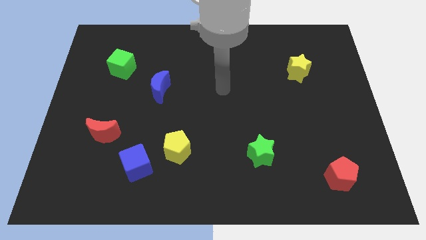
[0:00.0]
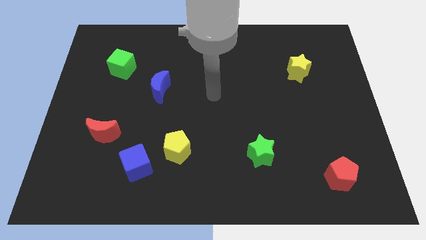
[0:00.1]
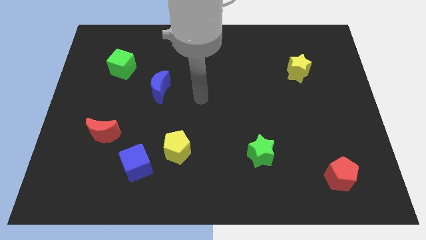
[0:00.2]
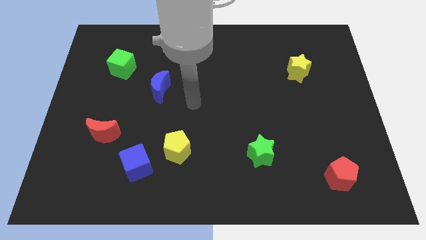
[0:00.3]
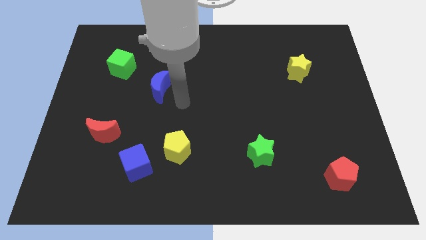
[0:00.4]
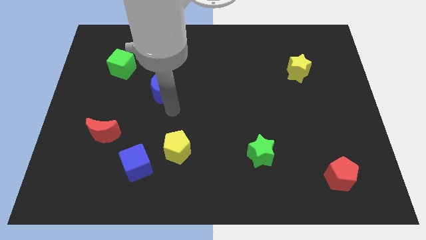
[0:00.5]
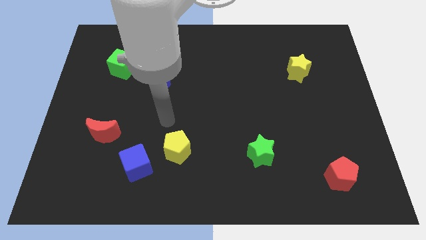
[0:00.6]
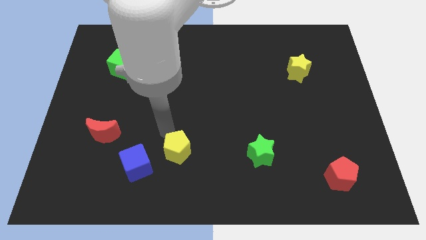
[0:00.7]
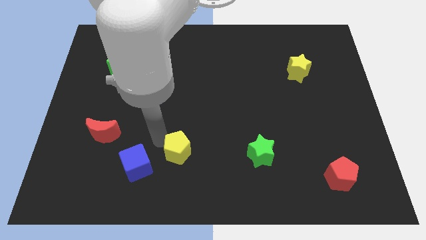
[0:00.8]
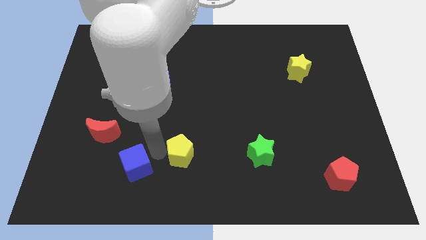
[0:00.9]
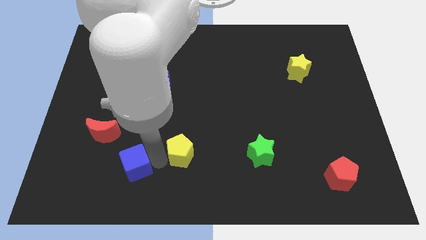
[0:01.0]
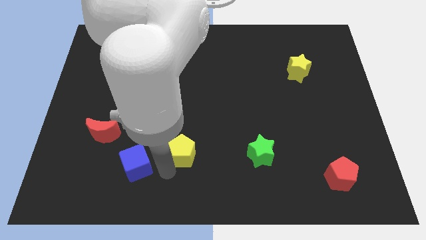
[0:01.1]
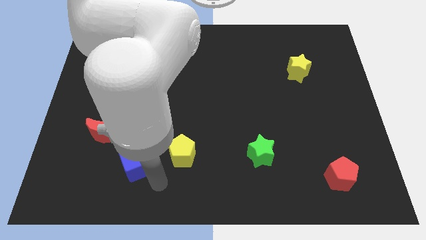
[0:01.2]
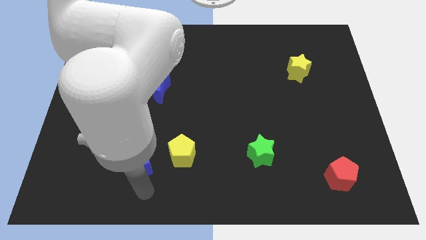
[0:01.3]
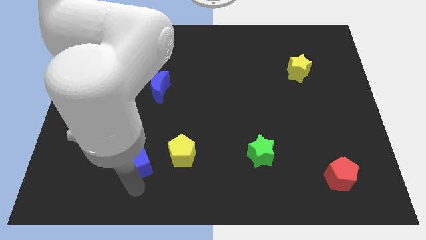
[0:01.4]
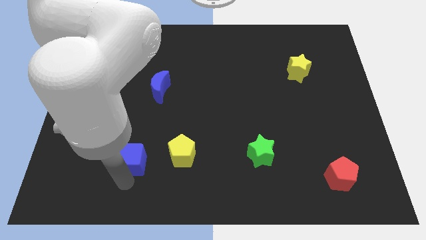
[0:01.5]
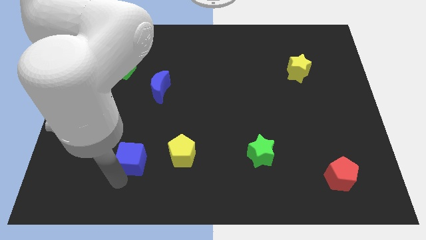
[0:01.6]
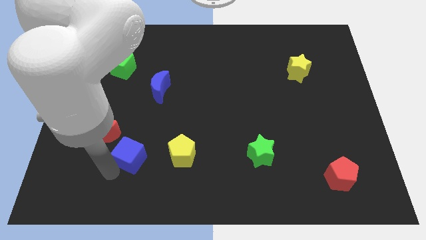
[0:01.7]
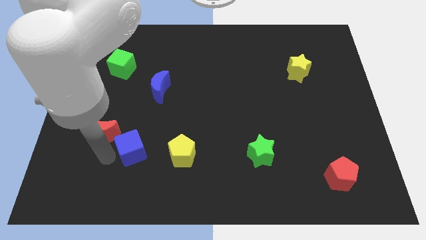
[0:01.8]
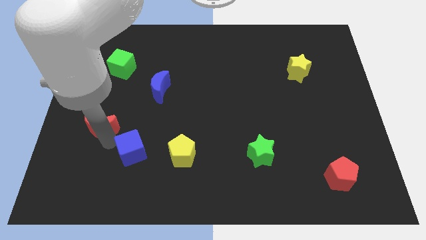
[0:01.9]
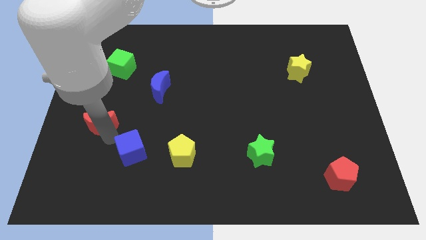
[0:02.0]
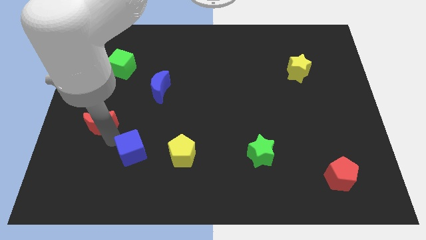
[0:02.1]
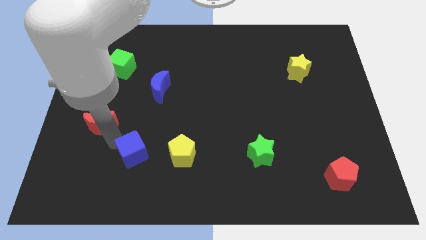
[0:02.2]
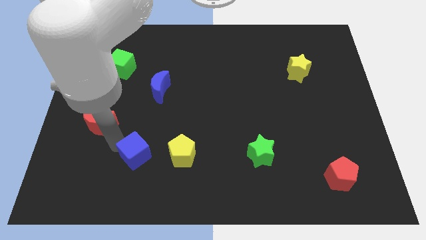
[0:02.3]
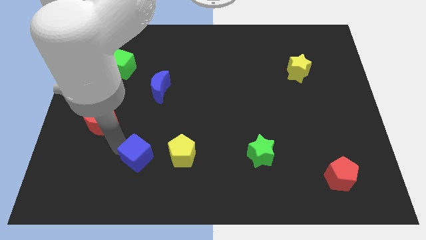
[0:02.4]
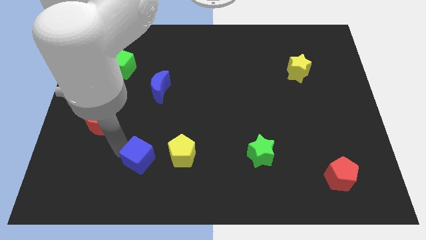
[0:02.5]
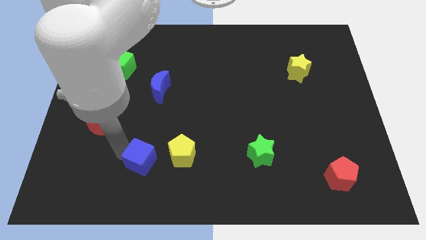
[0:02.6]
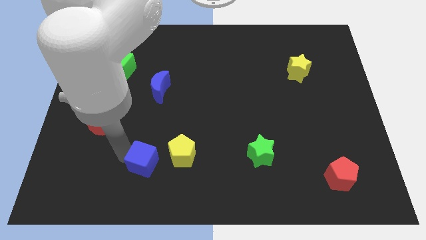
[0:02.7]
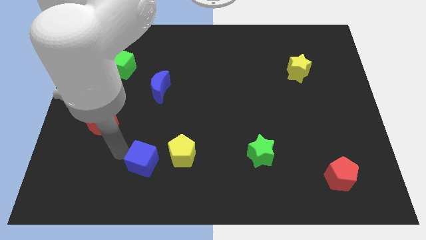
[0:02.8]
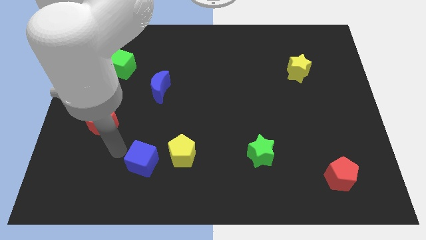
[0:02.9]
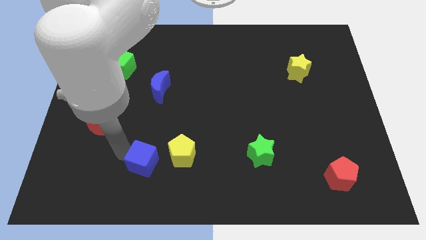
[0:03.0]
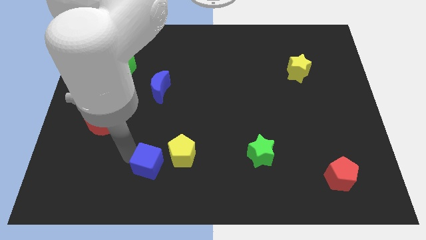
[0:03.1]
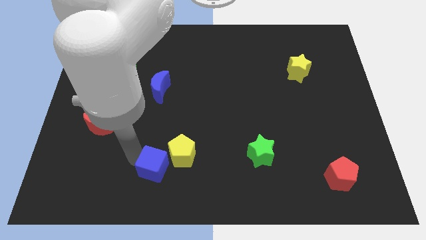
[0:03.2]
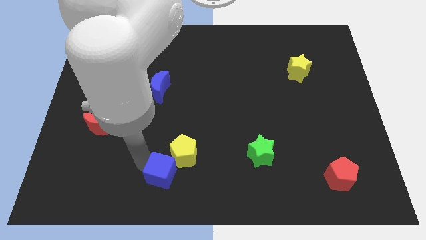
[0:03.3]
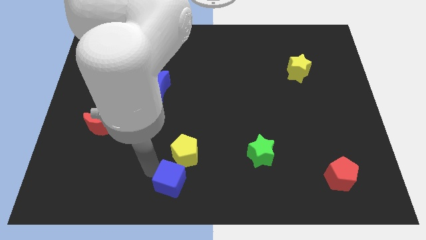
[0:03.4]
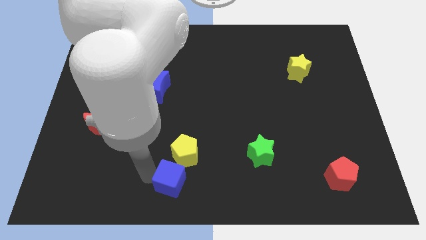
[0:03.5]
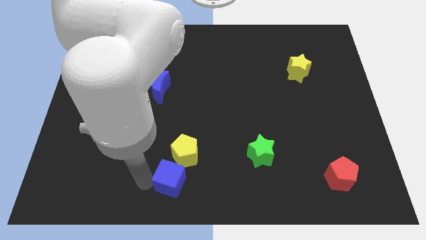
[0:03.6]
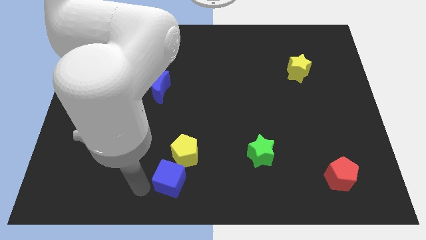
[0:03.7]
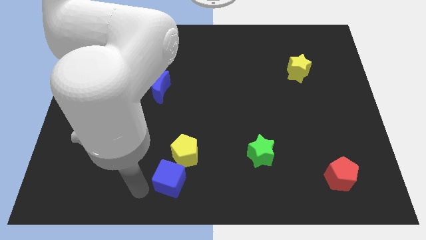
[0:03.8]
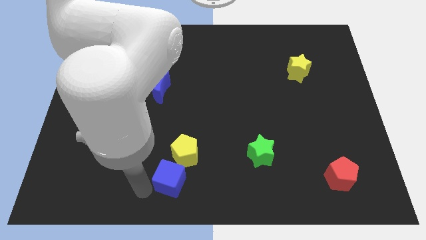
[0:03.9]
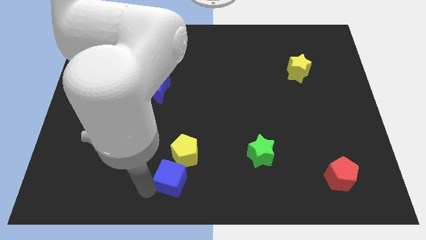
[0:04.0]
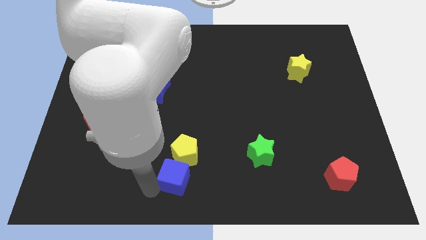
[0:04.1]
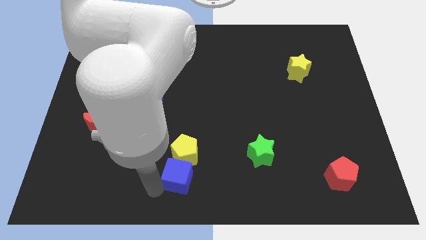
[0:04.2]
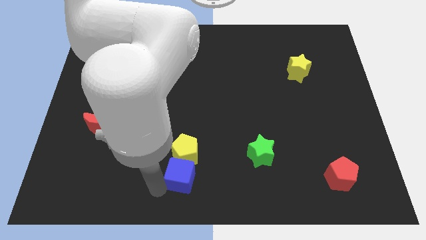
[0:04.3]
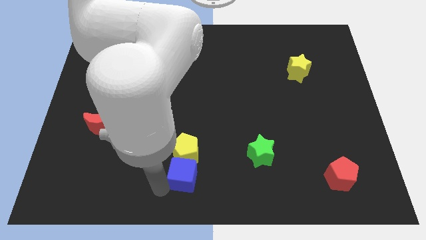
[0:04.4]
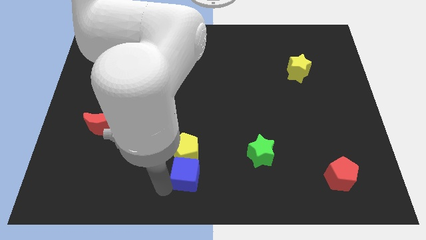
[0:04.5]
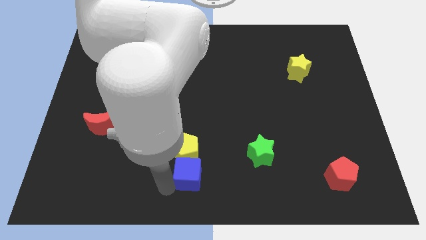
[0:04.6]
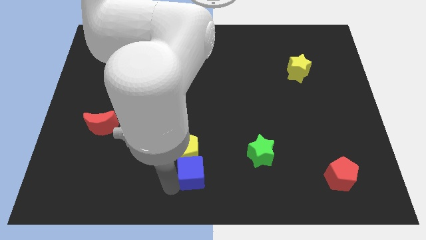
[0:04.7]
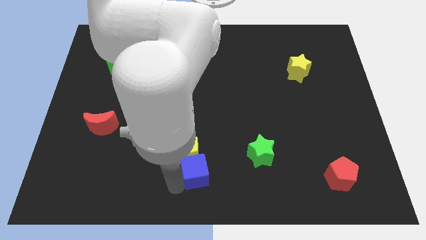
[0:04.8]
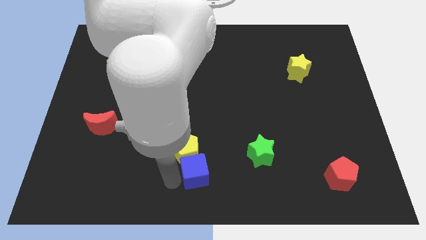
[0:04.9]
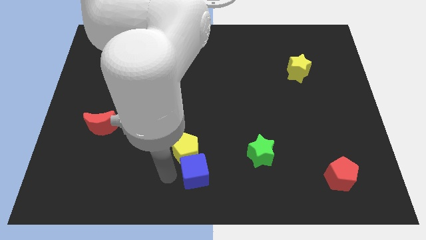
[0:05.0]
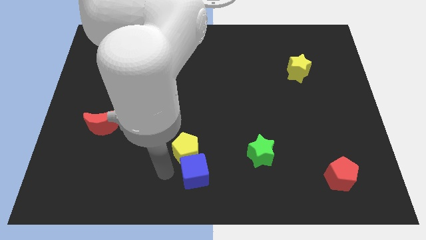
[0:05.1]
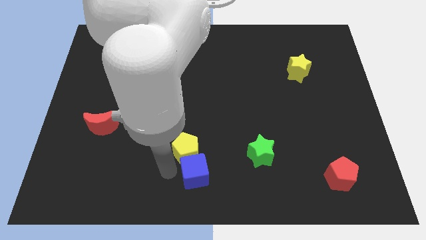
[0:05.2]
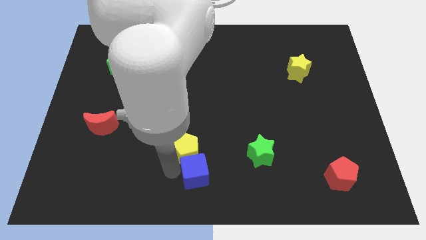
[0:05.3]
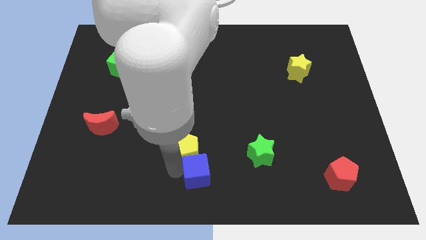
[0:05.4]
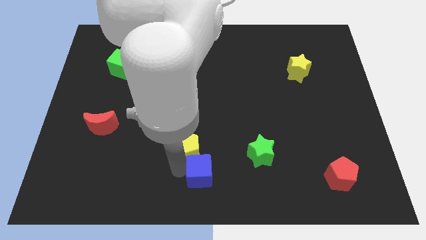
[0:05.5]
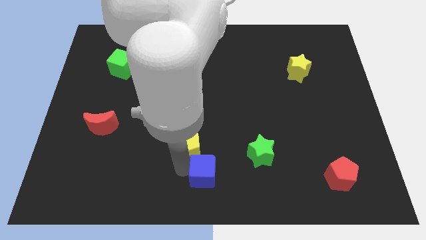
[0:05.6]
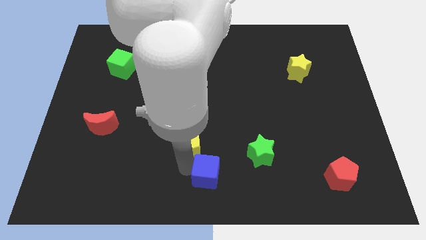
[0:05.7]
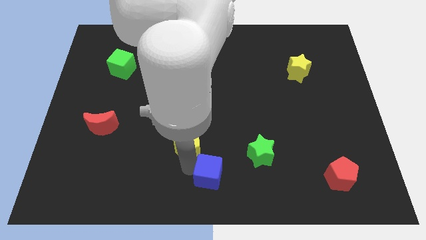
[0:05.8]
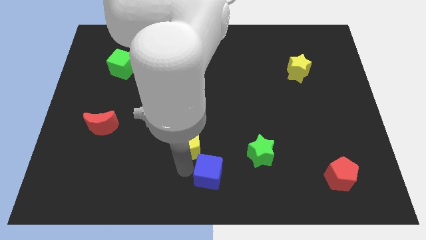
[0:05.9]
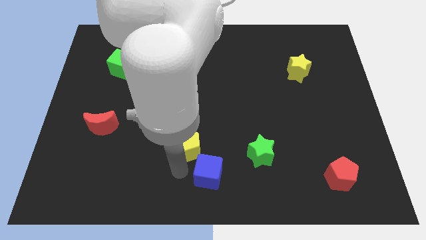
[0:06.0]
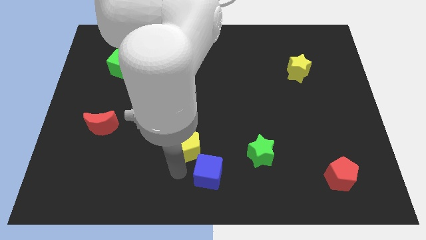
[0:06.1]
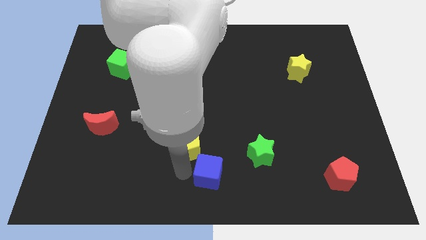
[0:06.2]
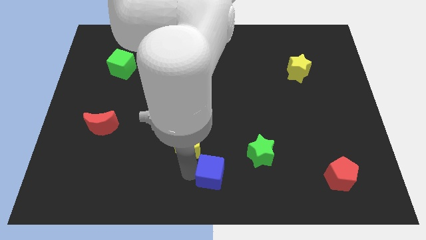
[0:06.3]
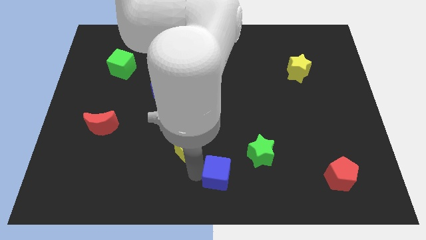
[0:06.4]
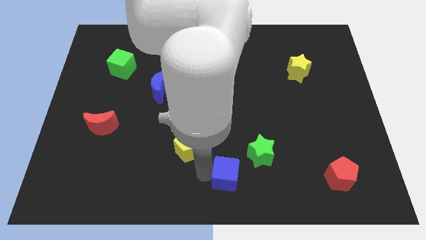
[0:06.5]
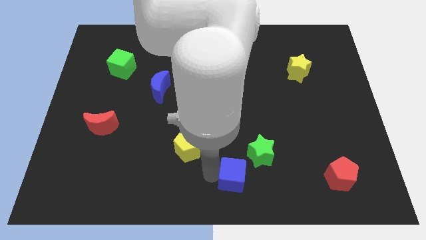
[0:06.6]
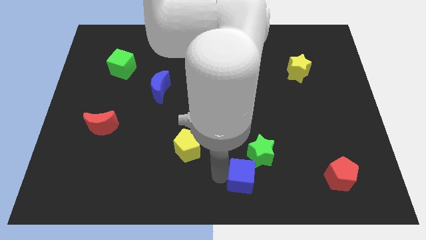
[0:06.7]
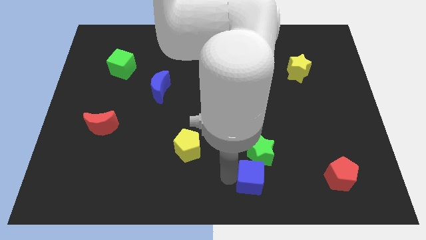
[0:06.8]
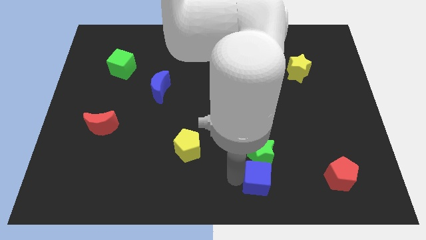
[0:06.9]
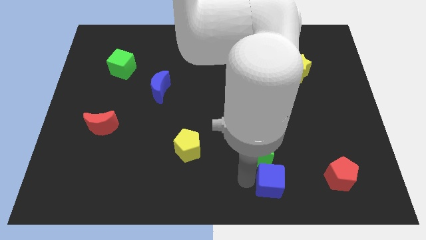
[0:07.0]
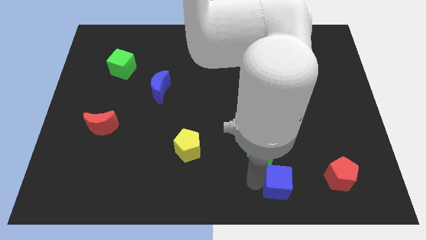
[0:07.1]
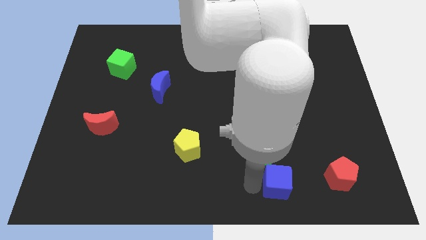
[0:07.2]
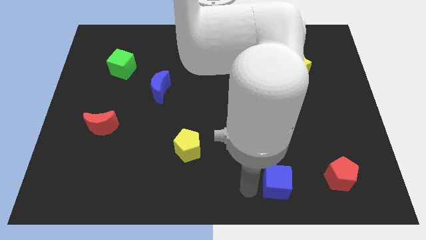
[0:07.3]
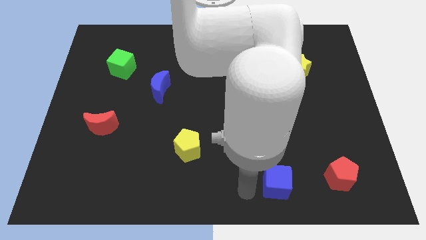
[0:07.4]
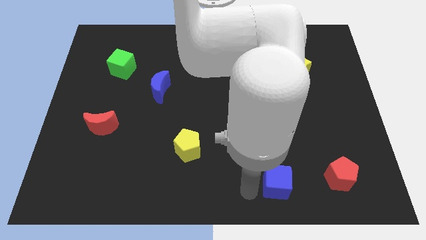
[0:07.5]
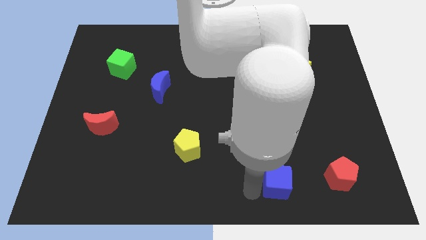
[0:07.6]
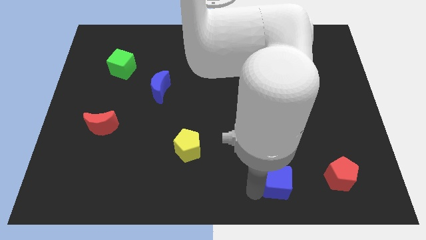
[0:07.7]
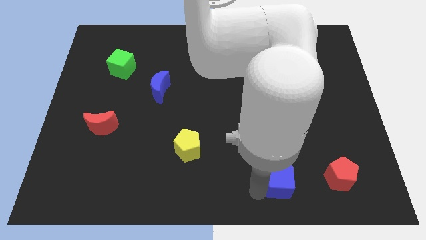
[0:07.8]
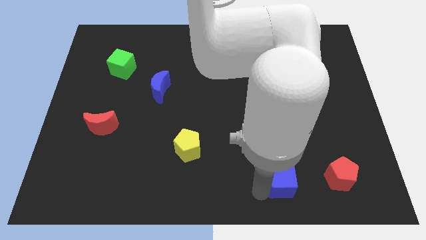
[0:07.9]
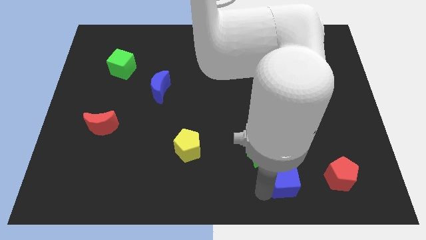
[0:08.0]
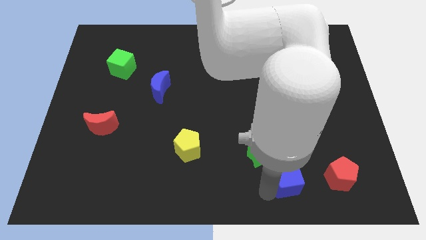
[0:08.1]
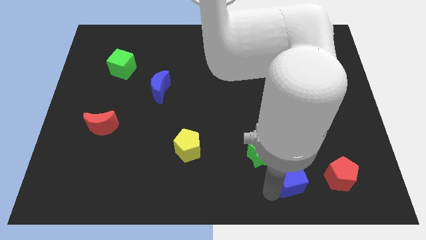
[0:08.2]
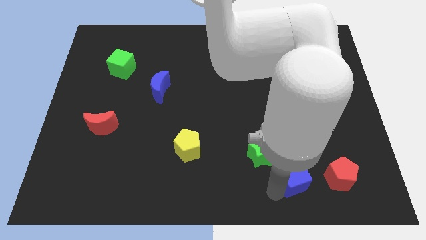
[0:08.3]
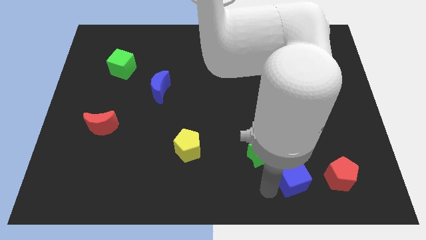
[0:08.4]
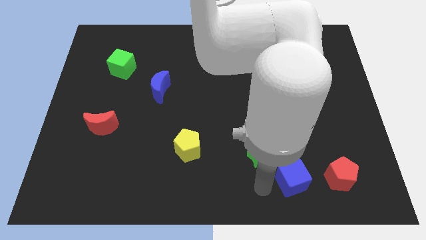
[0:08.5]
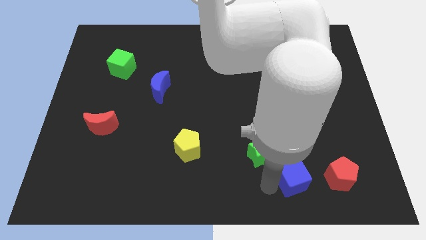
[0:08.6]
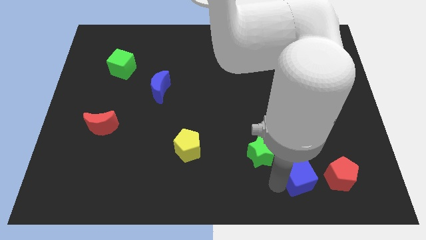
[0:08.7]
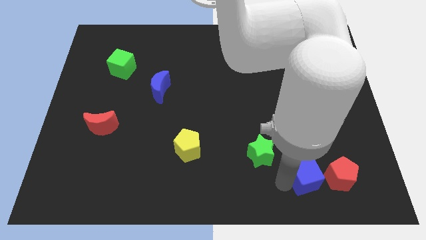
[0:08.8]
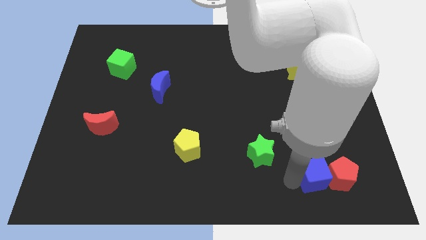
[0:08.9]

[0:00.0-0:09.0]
push the blue cube next to the red pentagon
